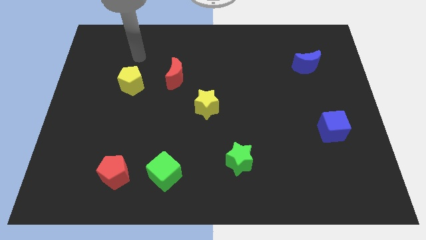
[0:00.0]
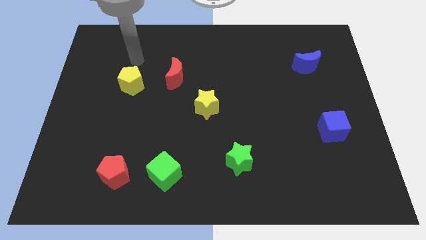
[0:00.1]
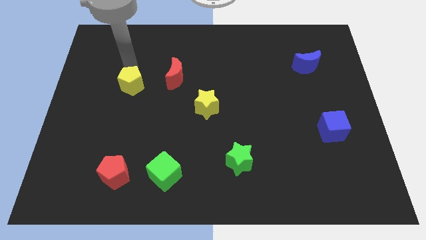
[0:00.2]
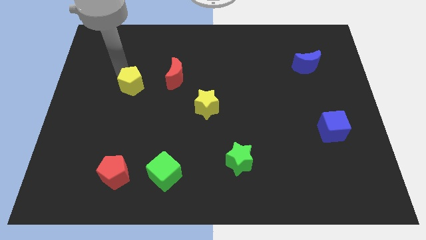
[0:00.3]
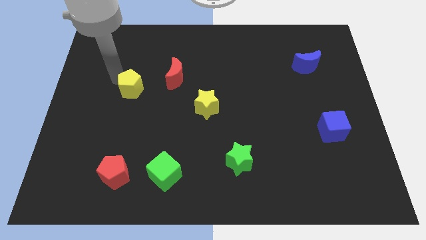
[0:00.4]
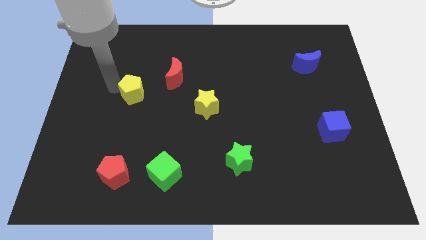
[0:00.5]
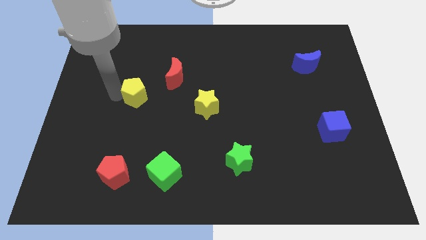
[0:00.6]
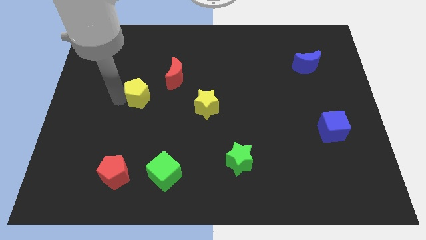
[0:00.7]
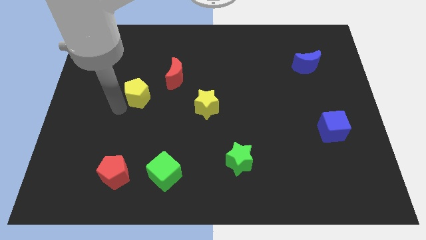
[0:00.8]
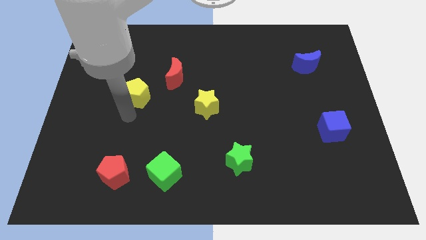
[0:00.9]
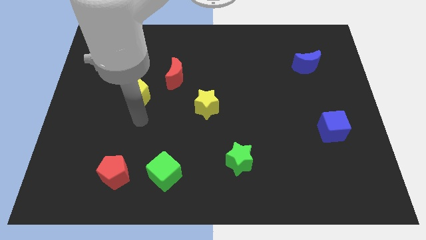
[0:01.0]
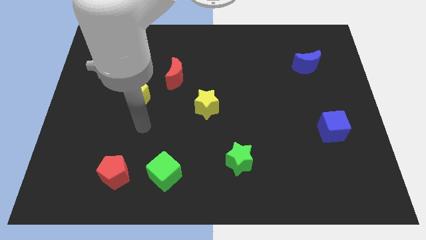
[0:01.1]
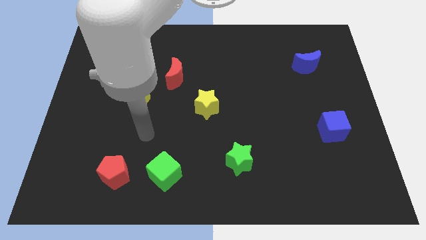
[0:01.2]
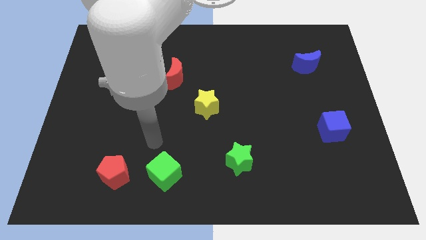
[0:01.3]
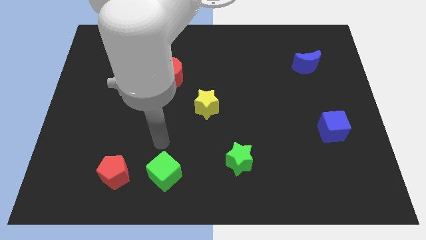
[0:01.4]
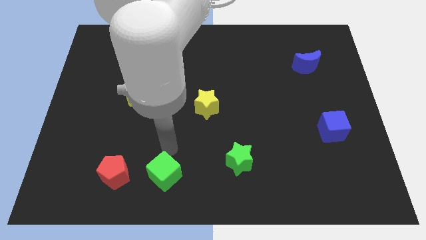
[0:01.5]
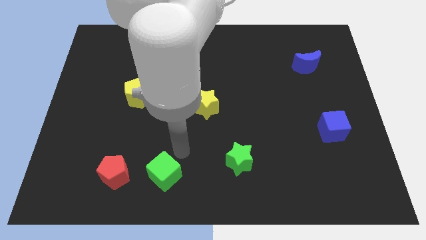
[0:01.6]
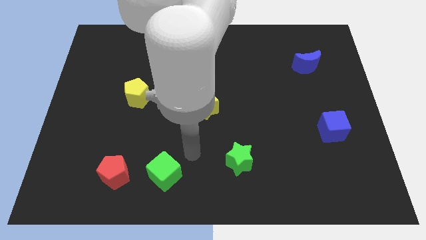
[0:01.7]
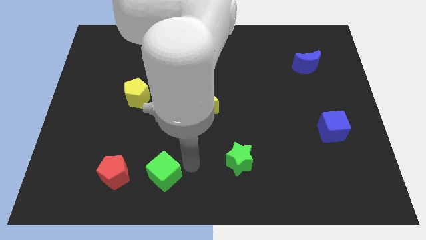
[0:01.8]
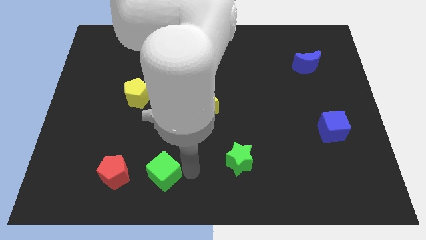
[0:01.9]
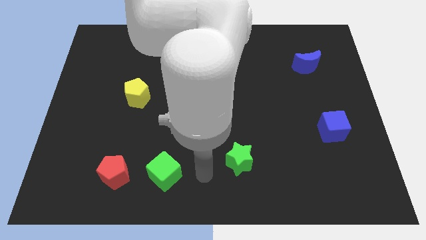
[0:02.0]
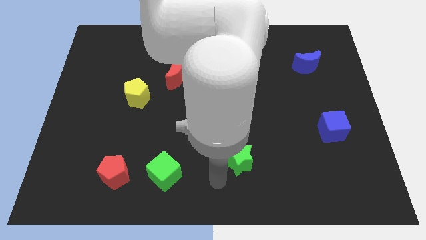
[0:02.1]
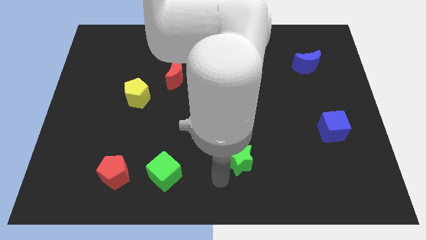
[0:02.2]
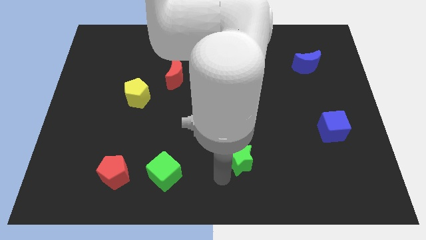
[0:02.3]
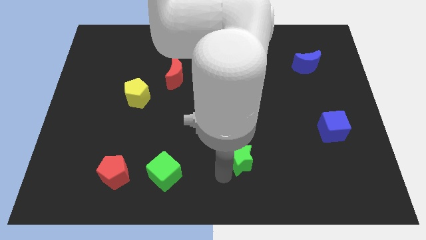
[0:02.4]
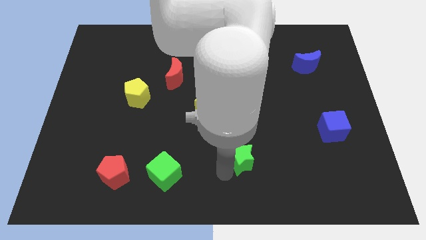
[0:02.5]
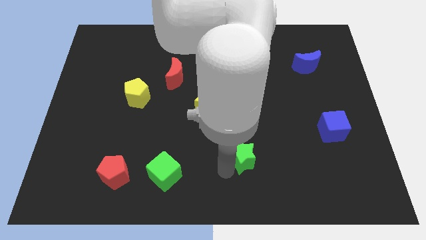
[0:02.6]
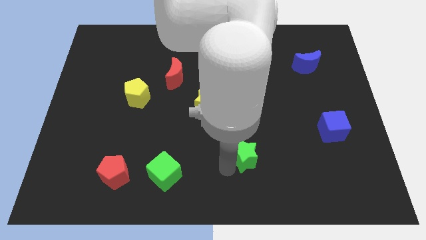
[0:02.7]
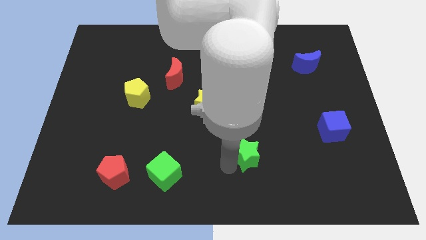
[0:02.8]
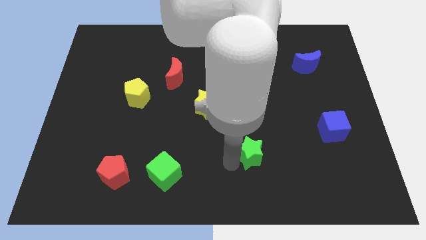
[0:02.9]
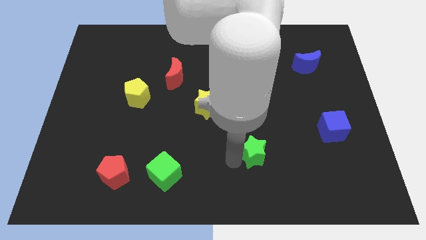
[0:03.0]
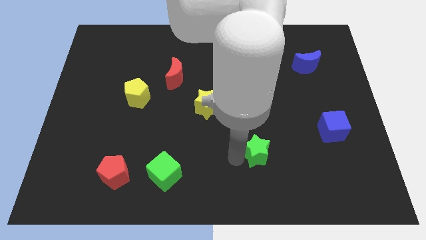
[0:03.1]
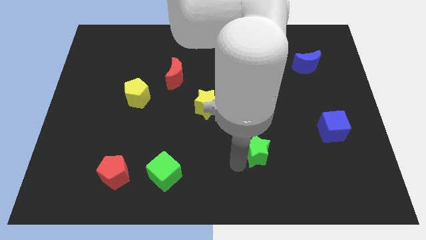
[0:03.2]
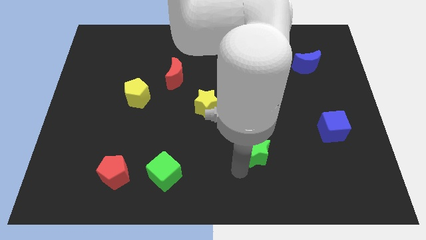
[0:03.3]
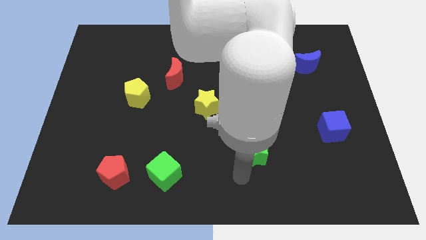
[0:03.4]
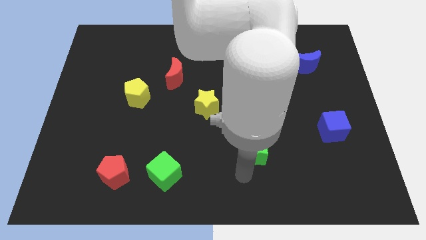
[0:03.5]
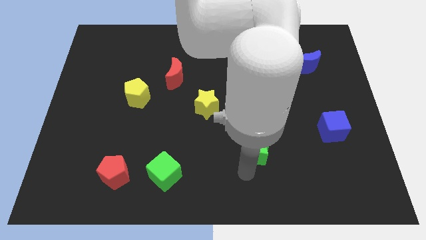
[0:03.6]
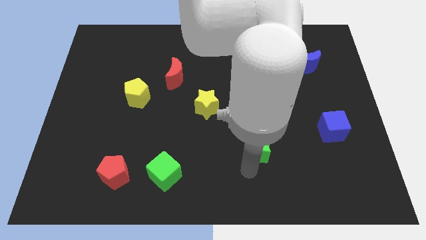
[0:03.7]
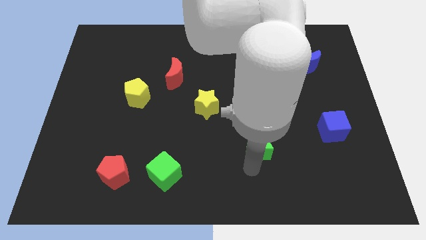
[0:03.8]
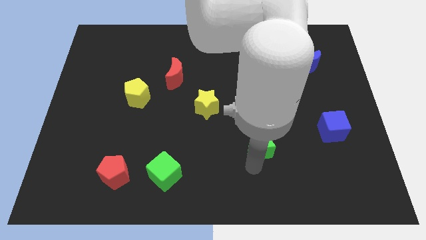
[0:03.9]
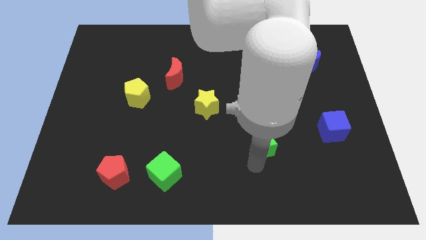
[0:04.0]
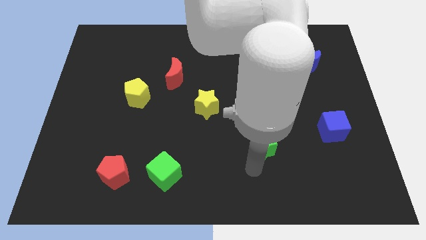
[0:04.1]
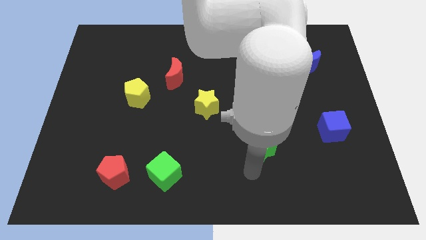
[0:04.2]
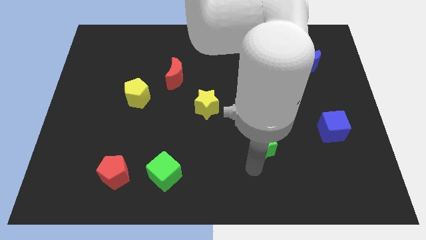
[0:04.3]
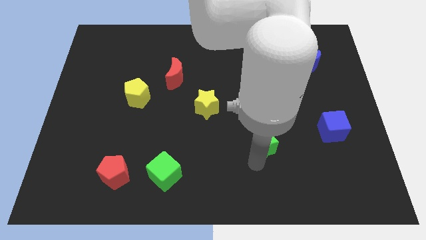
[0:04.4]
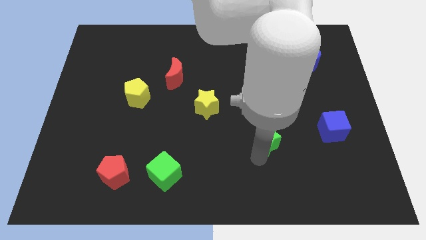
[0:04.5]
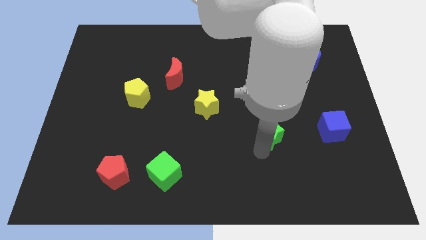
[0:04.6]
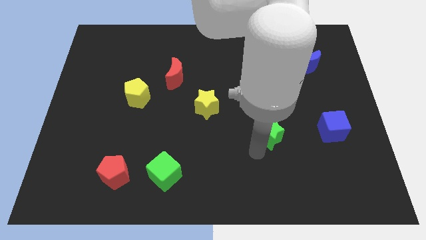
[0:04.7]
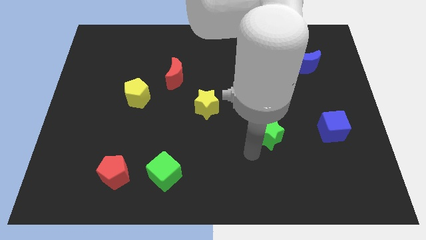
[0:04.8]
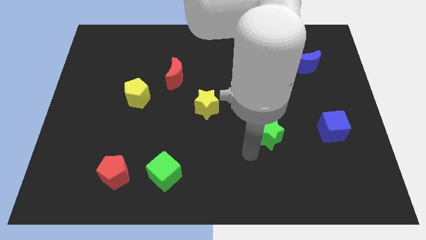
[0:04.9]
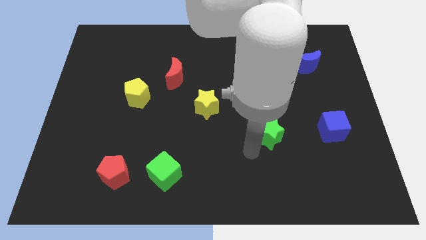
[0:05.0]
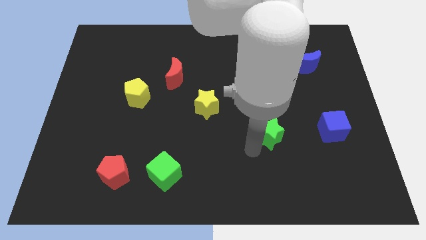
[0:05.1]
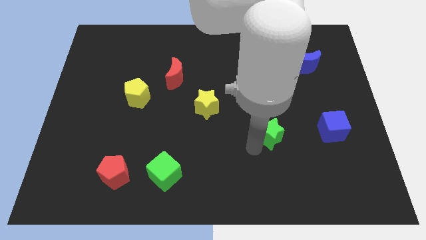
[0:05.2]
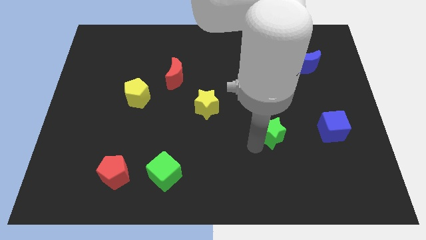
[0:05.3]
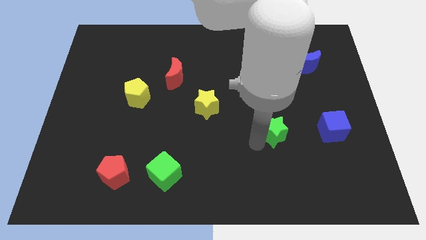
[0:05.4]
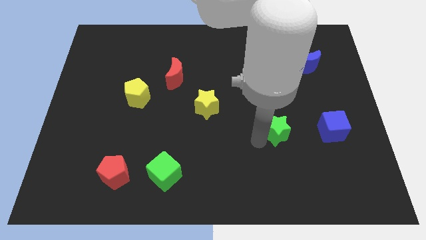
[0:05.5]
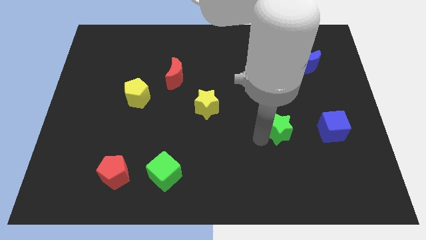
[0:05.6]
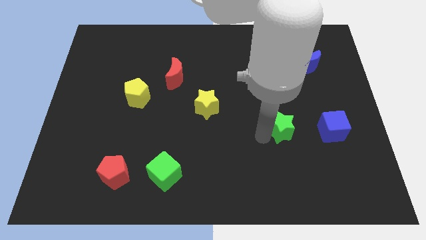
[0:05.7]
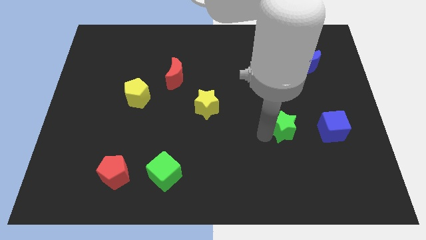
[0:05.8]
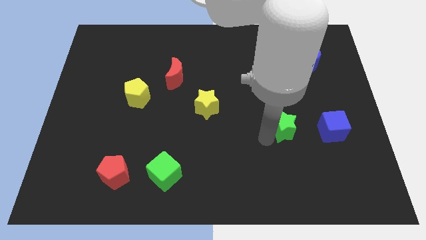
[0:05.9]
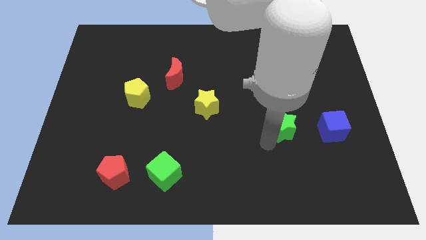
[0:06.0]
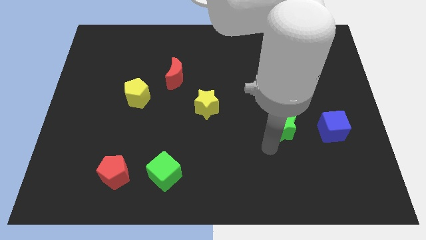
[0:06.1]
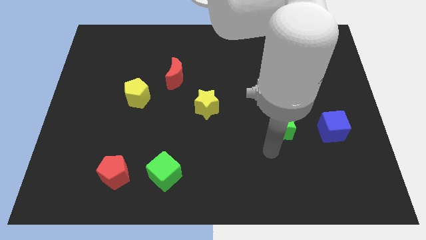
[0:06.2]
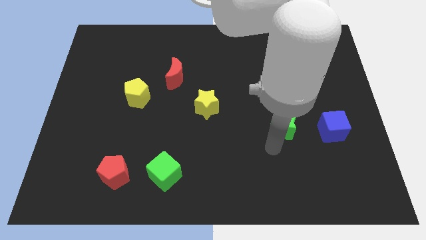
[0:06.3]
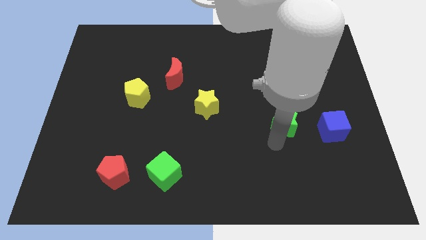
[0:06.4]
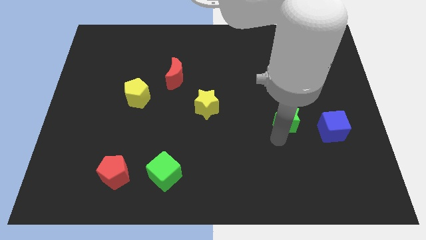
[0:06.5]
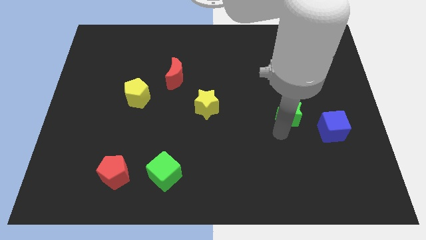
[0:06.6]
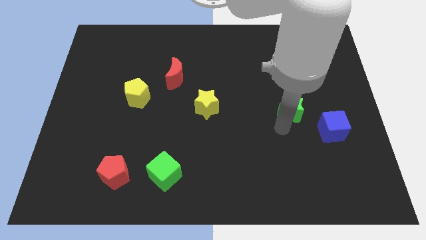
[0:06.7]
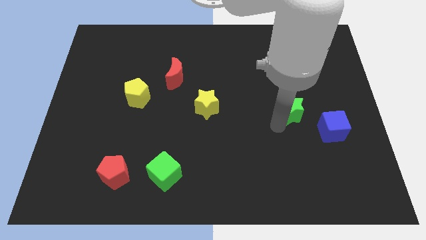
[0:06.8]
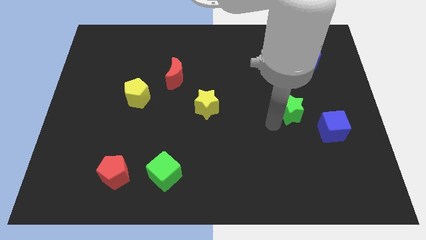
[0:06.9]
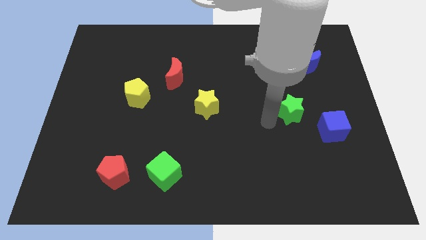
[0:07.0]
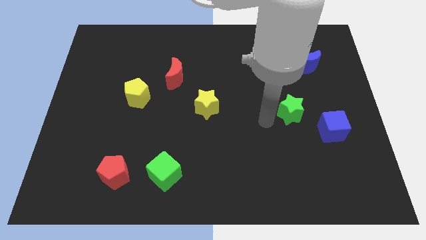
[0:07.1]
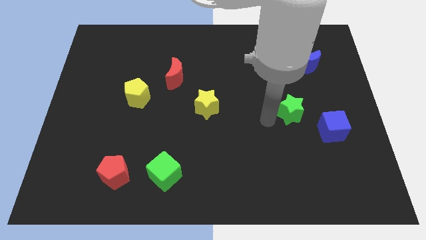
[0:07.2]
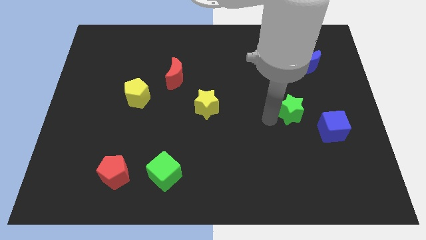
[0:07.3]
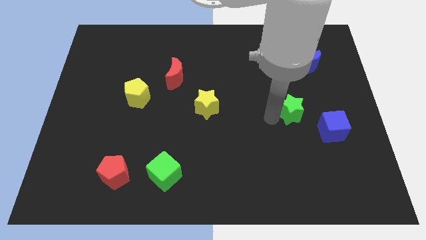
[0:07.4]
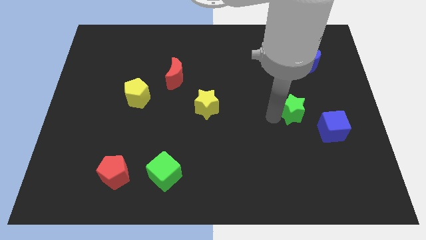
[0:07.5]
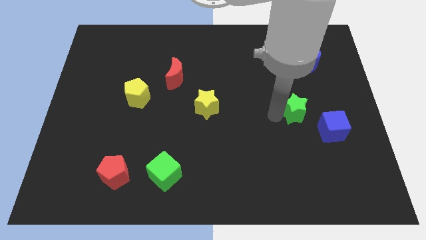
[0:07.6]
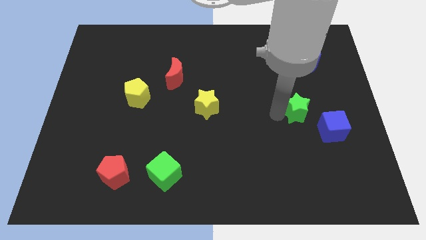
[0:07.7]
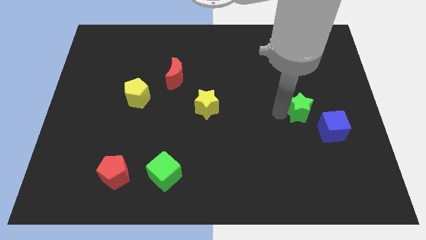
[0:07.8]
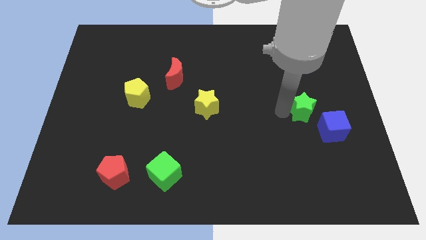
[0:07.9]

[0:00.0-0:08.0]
slide the green star upwards and right
